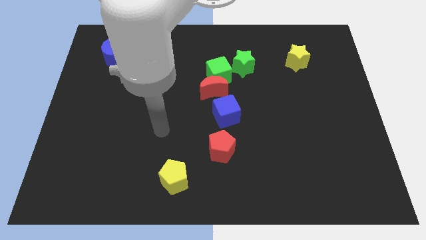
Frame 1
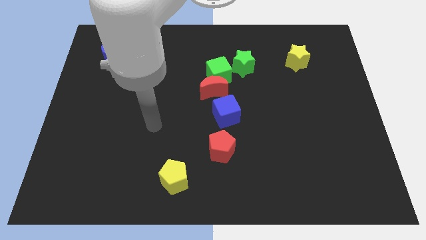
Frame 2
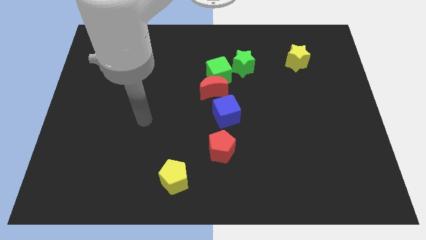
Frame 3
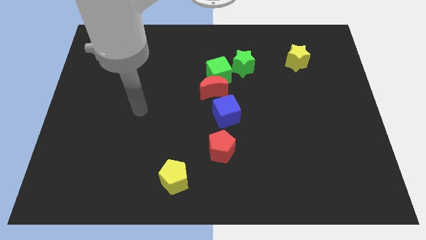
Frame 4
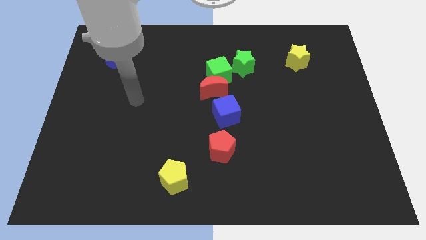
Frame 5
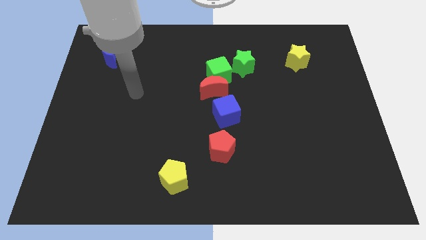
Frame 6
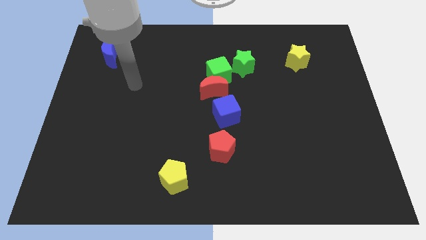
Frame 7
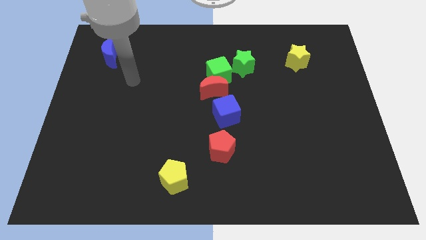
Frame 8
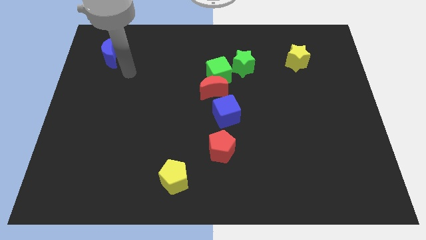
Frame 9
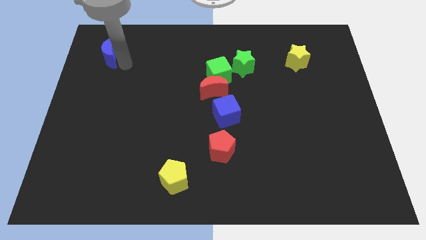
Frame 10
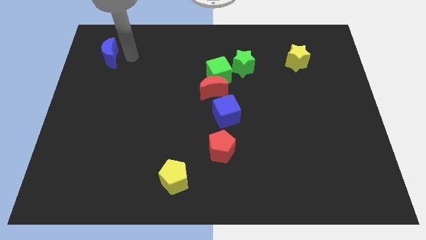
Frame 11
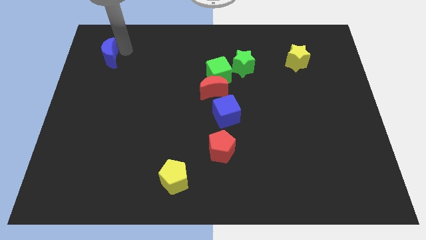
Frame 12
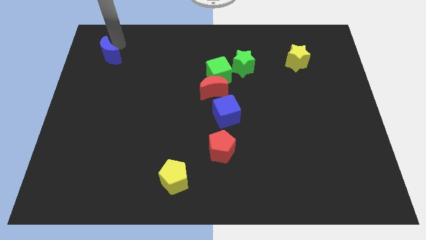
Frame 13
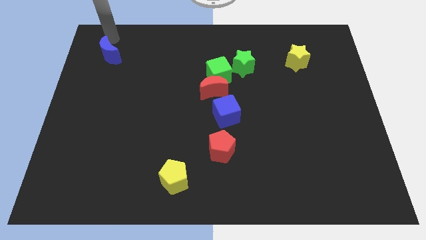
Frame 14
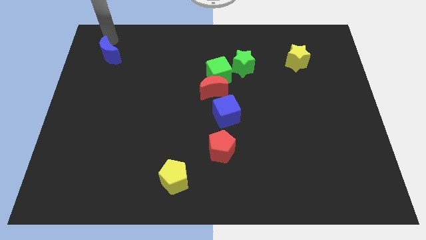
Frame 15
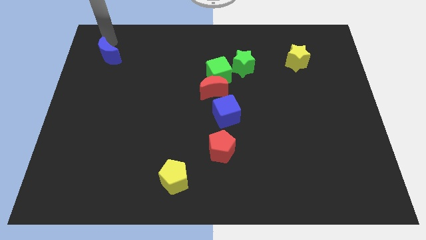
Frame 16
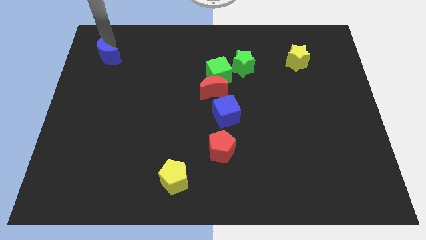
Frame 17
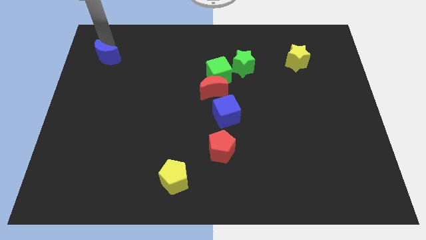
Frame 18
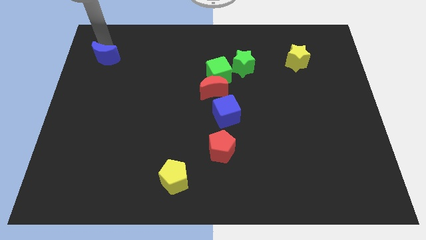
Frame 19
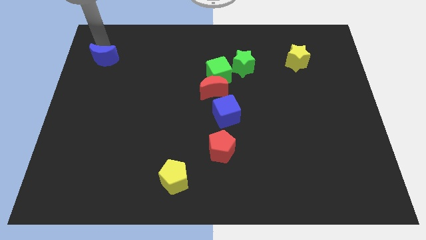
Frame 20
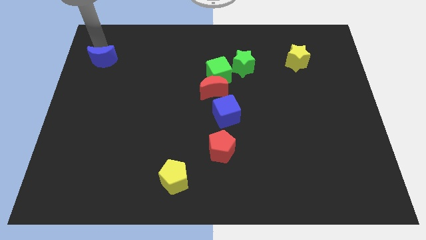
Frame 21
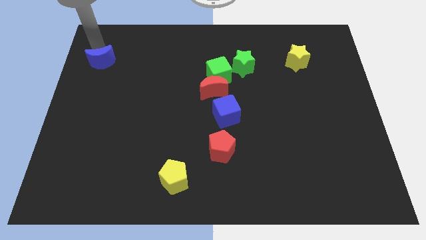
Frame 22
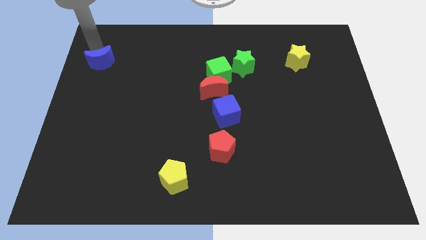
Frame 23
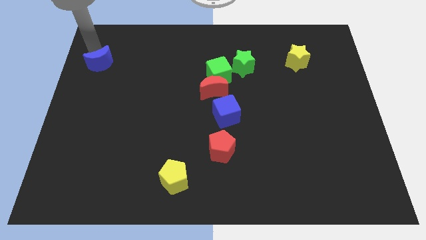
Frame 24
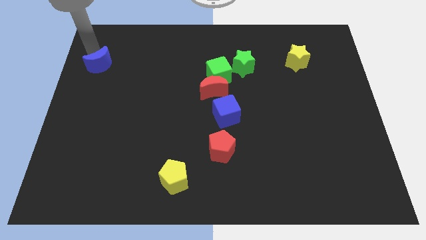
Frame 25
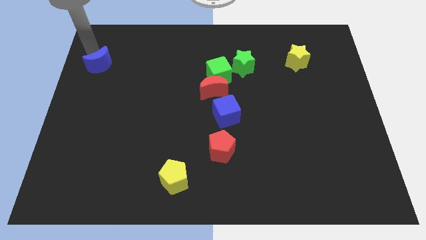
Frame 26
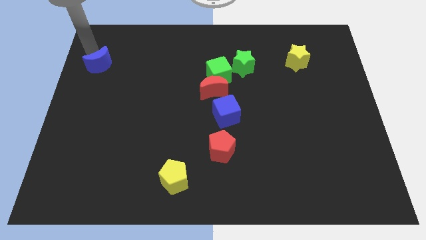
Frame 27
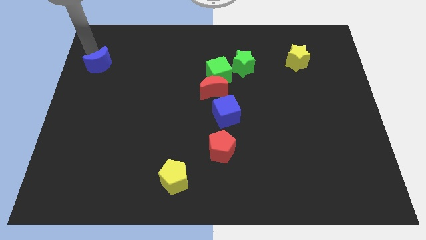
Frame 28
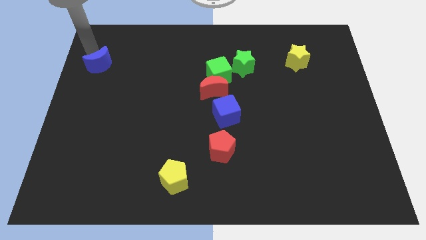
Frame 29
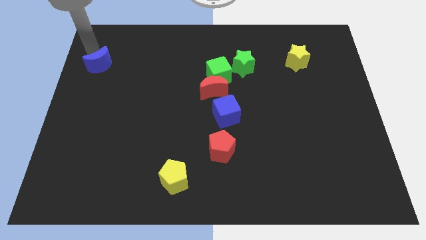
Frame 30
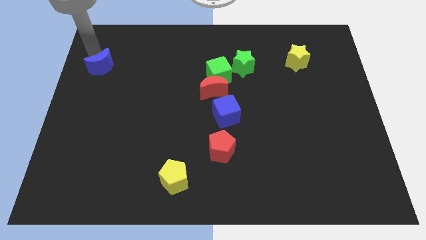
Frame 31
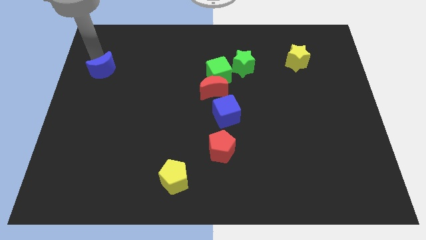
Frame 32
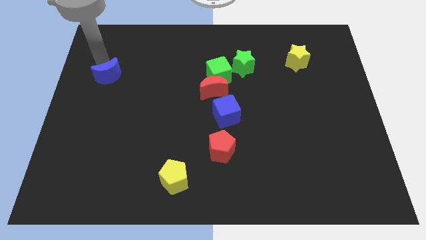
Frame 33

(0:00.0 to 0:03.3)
push the blue moon a little down

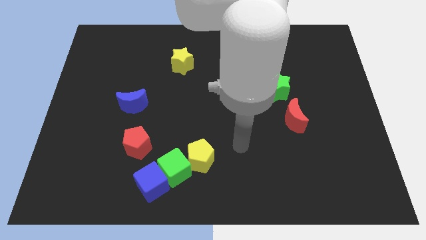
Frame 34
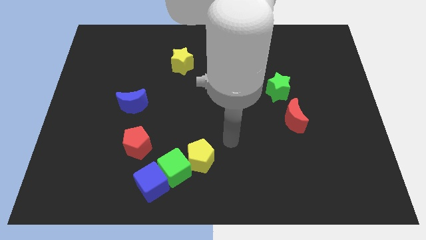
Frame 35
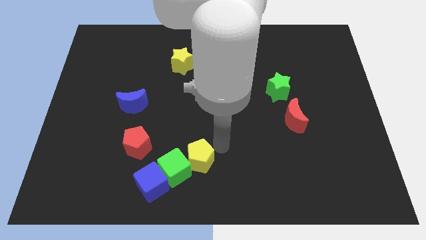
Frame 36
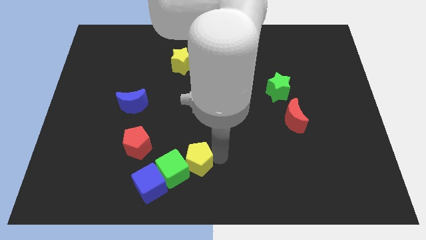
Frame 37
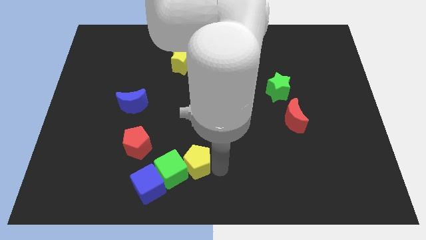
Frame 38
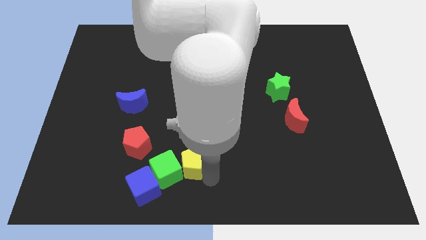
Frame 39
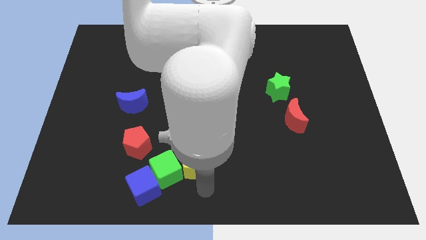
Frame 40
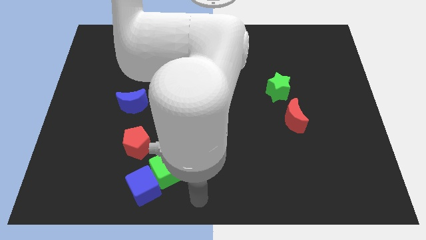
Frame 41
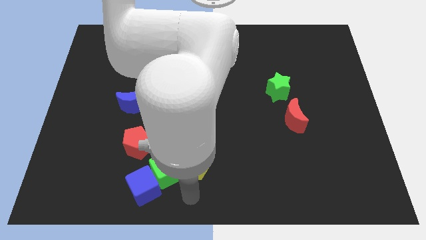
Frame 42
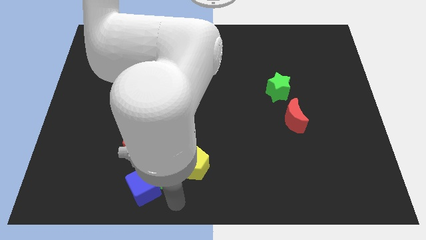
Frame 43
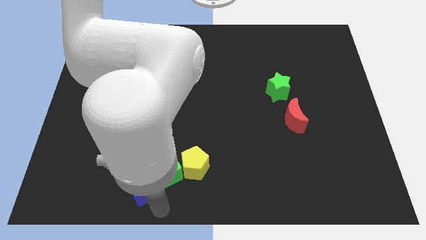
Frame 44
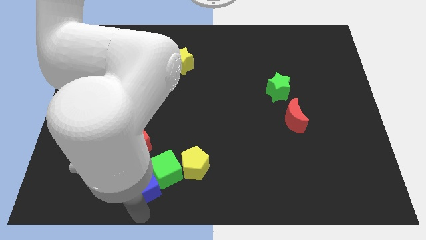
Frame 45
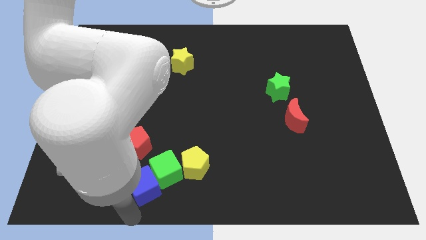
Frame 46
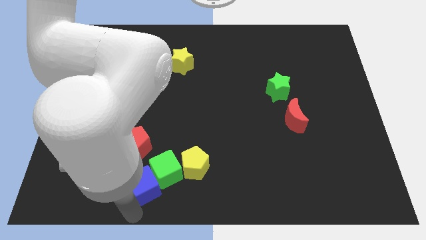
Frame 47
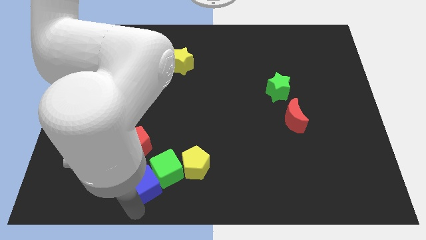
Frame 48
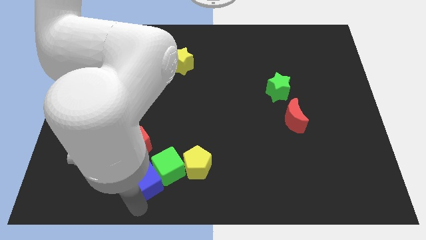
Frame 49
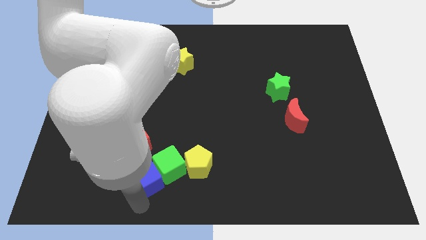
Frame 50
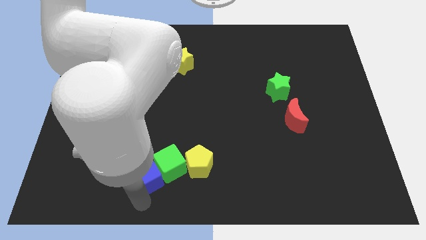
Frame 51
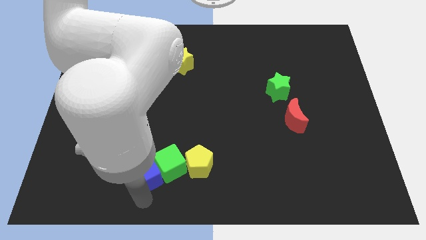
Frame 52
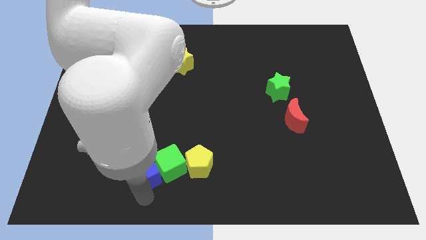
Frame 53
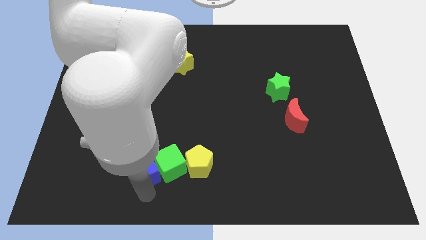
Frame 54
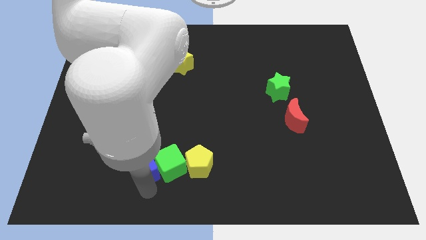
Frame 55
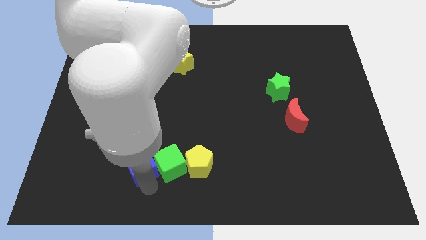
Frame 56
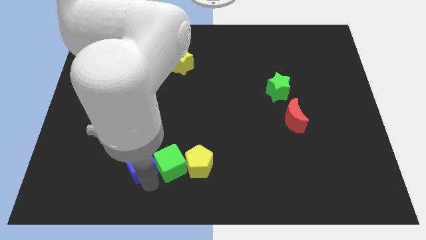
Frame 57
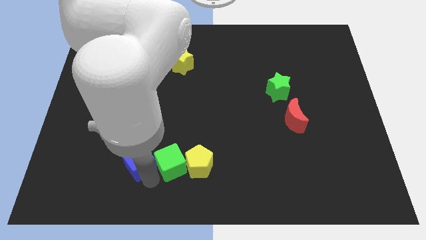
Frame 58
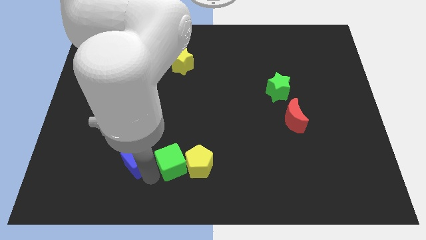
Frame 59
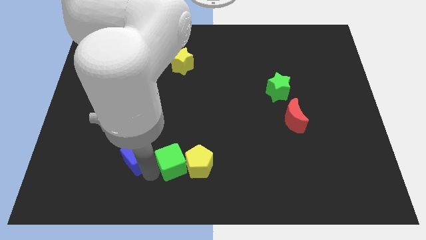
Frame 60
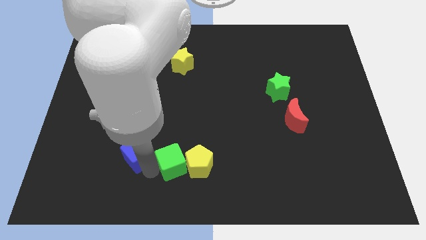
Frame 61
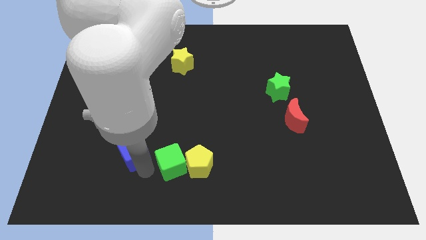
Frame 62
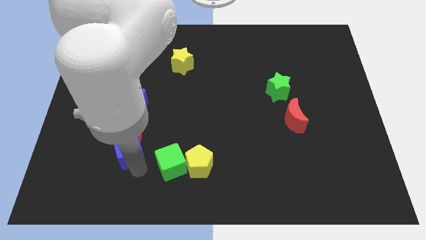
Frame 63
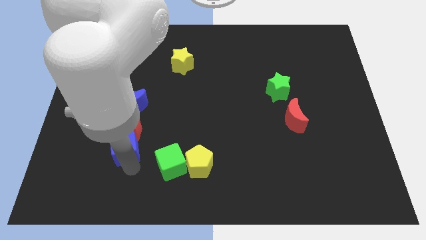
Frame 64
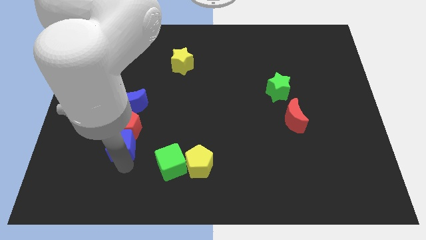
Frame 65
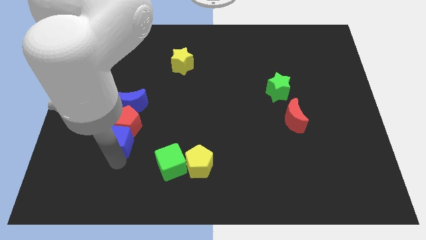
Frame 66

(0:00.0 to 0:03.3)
slide the blue cube a little upwards

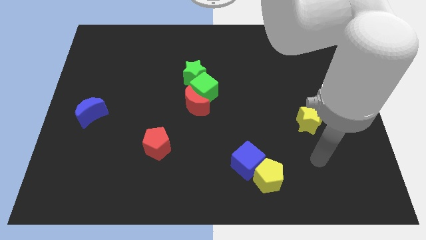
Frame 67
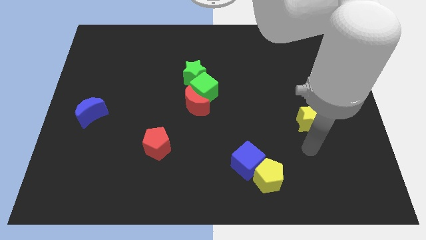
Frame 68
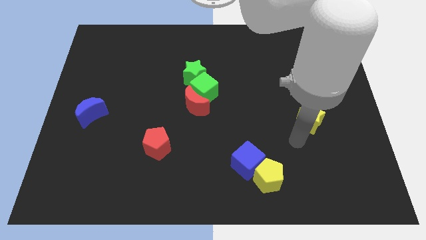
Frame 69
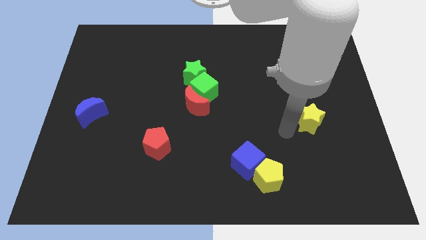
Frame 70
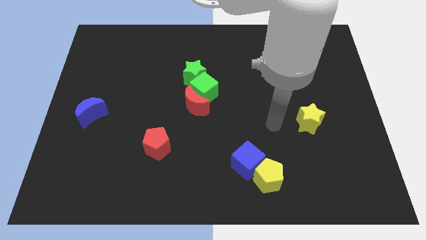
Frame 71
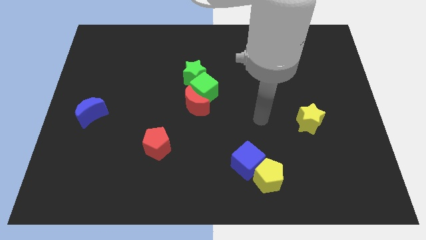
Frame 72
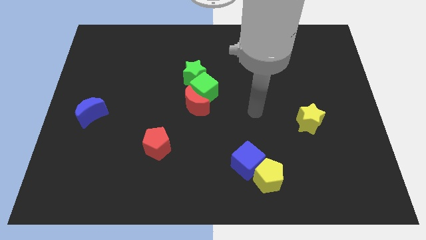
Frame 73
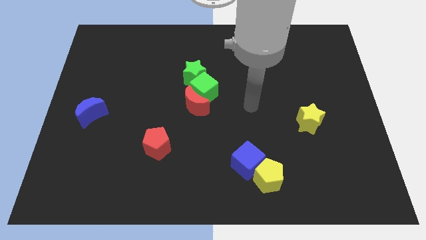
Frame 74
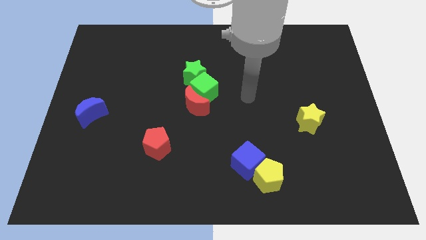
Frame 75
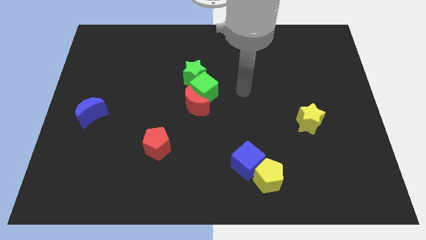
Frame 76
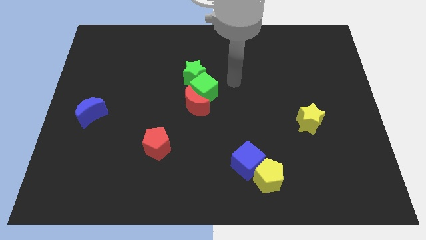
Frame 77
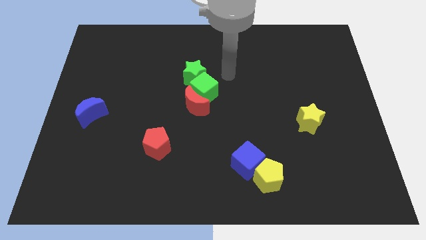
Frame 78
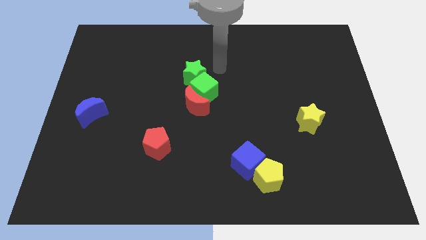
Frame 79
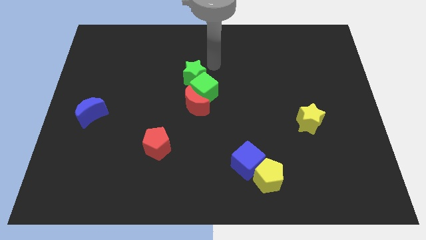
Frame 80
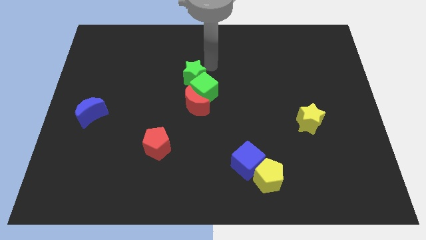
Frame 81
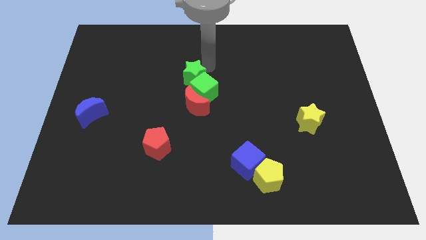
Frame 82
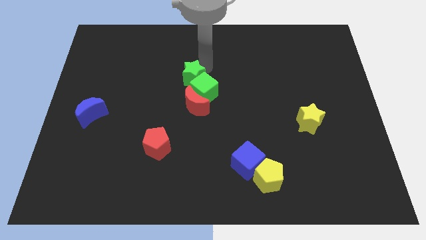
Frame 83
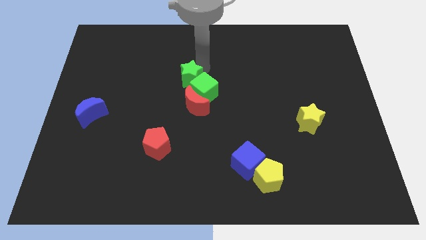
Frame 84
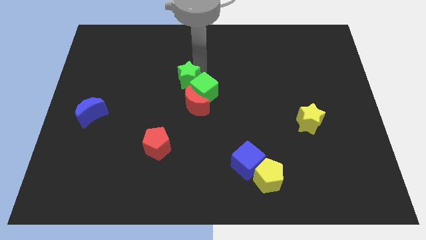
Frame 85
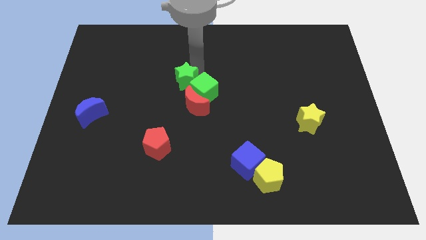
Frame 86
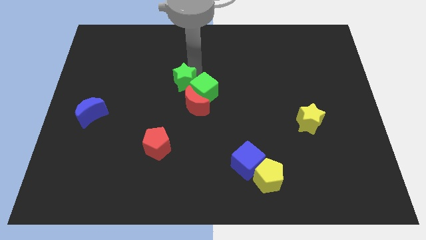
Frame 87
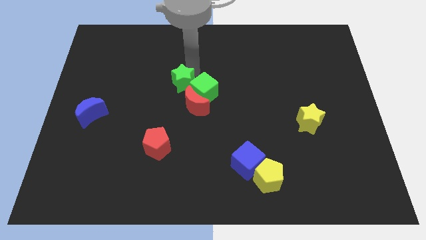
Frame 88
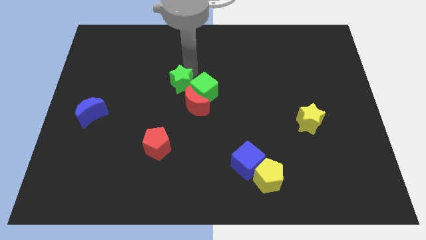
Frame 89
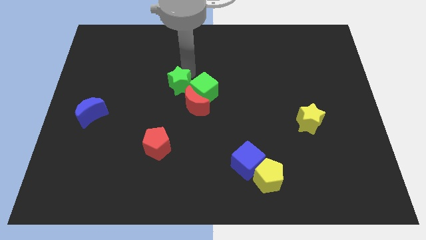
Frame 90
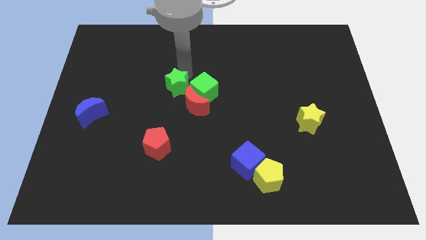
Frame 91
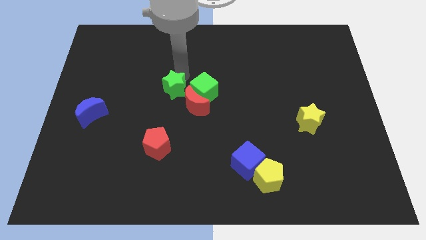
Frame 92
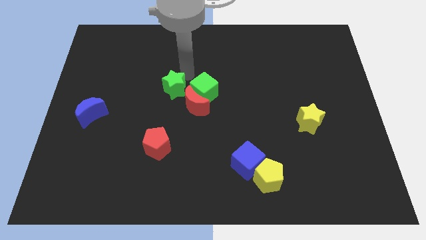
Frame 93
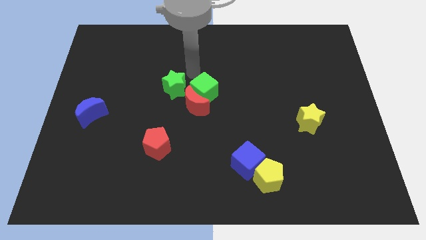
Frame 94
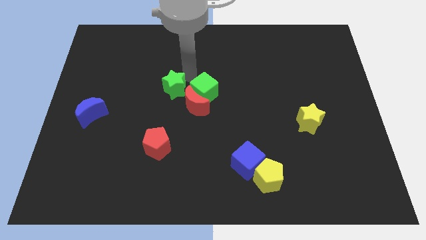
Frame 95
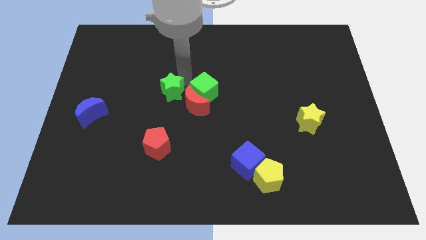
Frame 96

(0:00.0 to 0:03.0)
slightly slide the green star down and left diagonally
